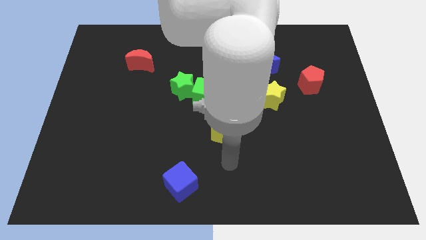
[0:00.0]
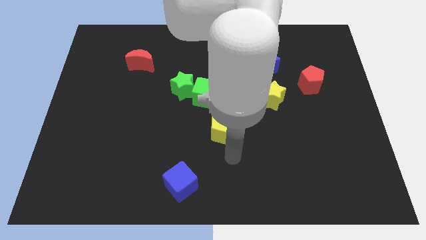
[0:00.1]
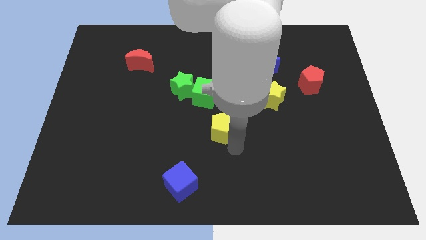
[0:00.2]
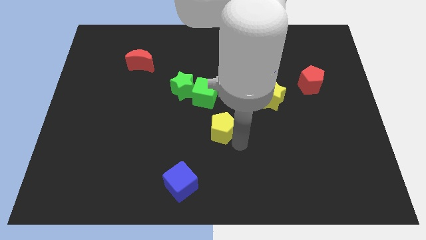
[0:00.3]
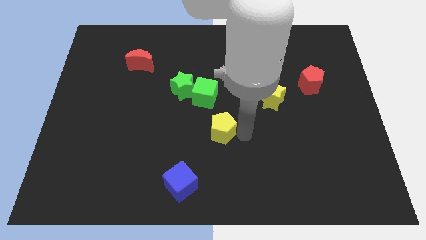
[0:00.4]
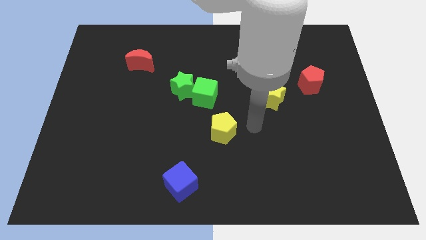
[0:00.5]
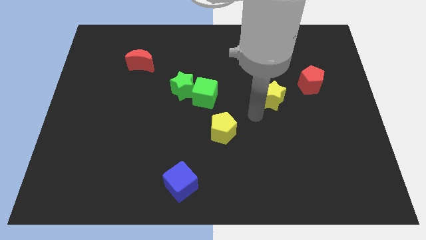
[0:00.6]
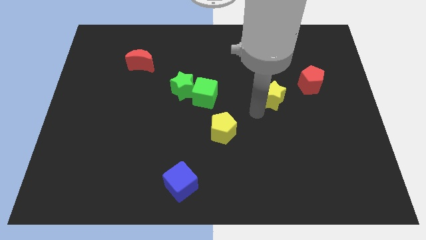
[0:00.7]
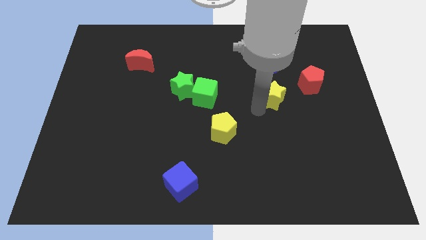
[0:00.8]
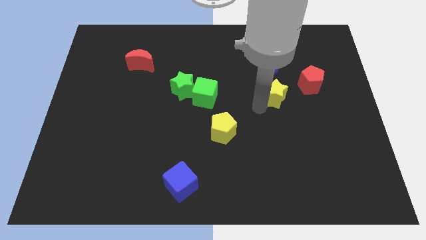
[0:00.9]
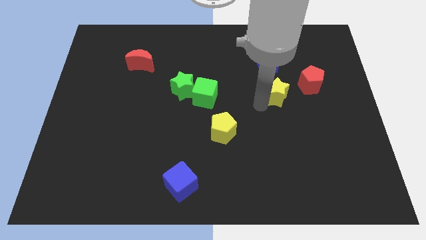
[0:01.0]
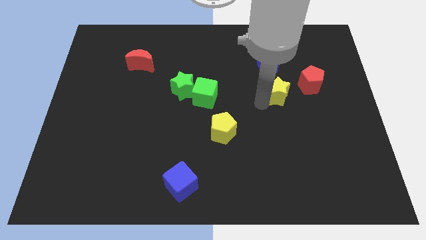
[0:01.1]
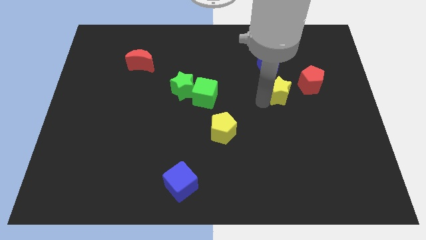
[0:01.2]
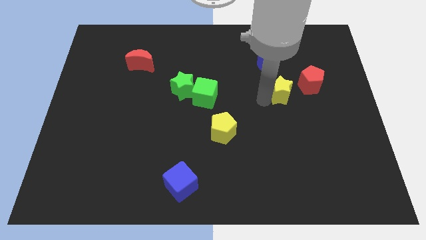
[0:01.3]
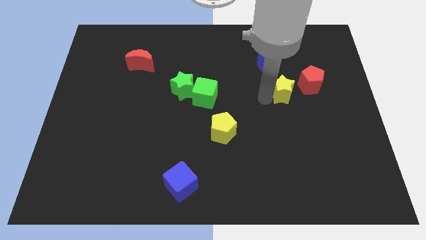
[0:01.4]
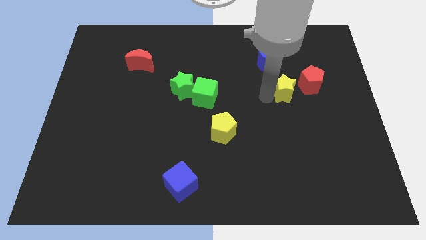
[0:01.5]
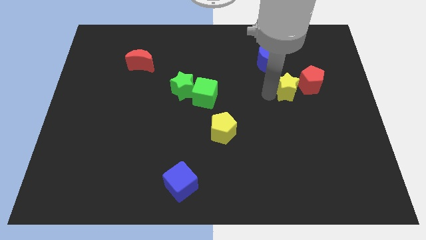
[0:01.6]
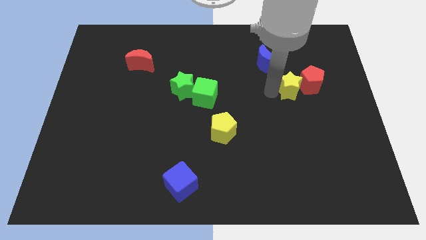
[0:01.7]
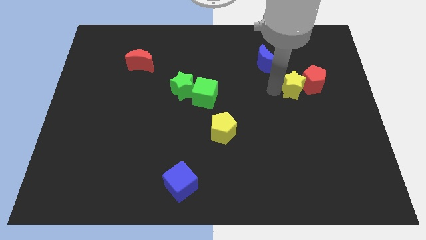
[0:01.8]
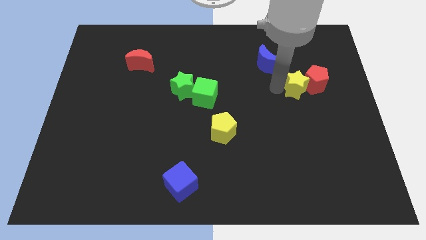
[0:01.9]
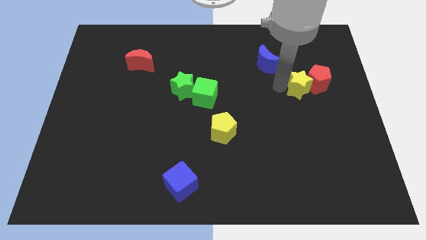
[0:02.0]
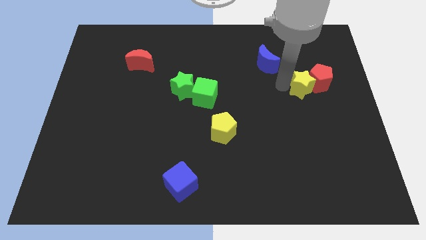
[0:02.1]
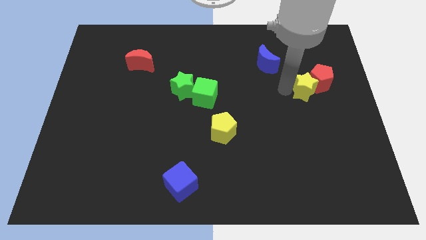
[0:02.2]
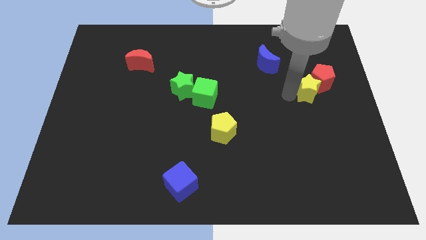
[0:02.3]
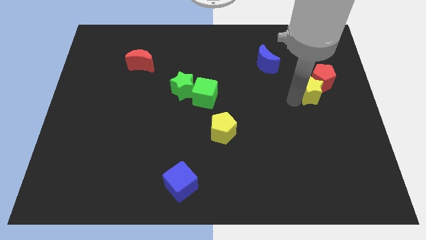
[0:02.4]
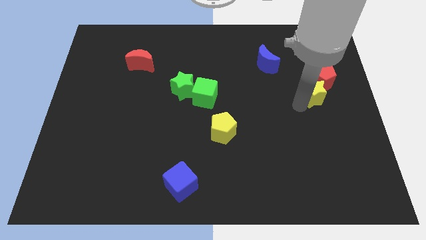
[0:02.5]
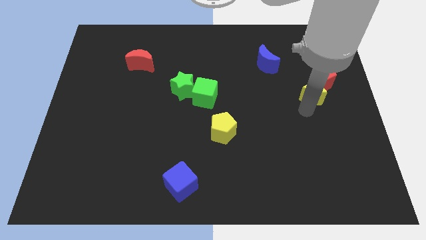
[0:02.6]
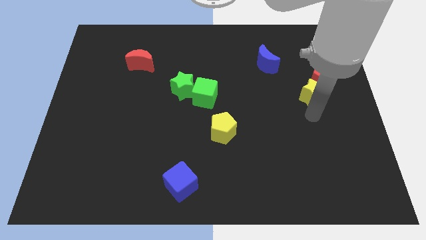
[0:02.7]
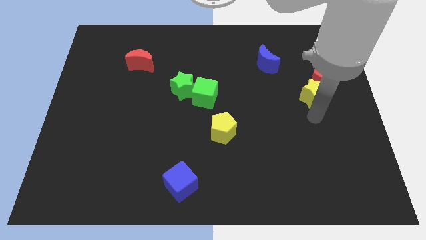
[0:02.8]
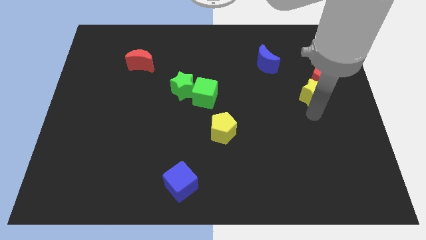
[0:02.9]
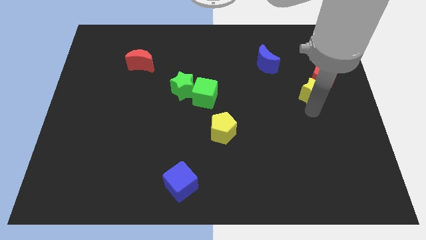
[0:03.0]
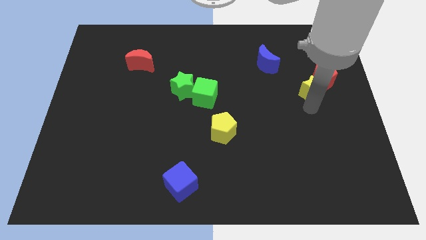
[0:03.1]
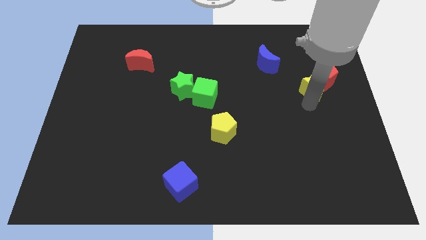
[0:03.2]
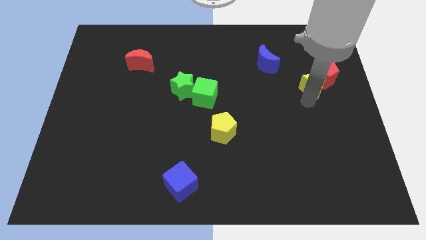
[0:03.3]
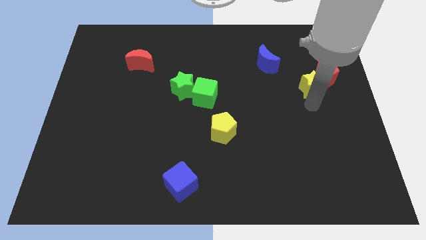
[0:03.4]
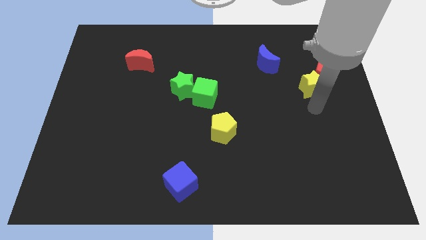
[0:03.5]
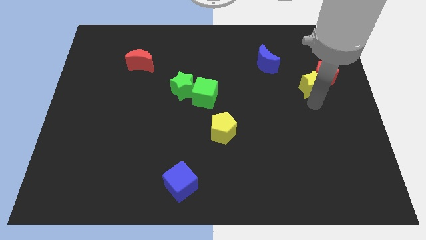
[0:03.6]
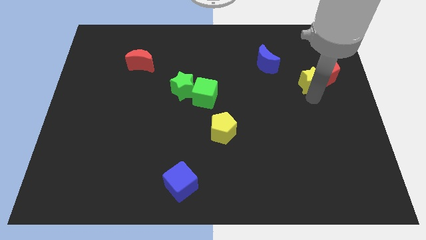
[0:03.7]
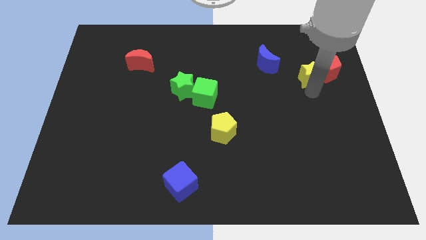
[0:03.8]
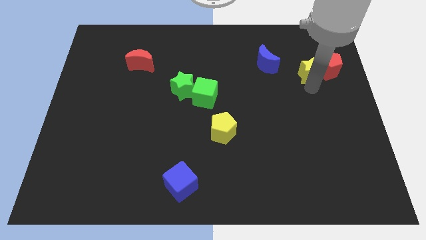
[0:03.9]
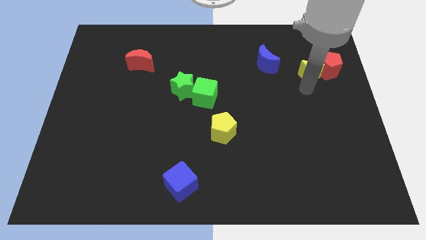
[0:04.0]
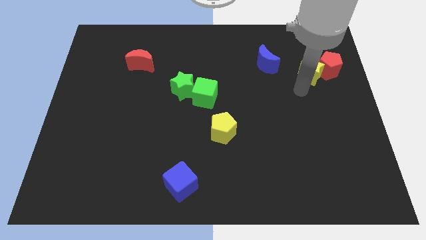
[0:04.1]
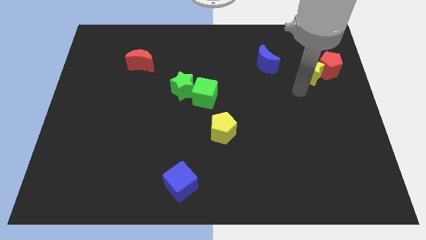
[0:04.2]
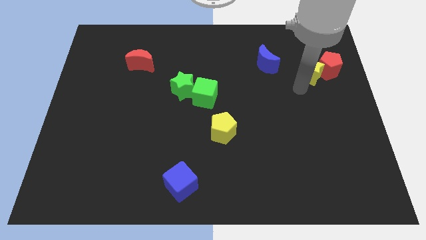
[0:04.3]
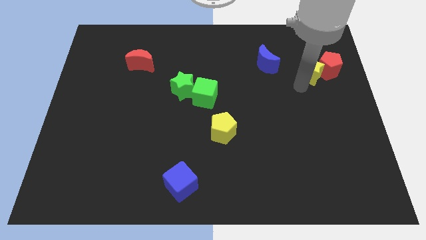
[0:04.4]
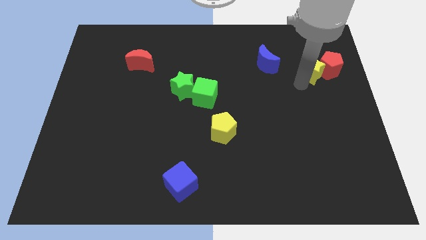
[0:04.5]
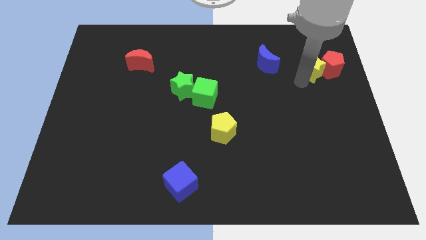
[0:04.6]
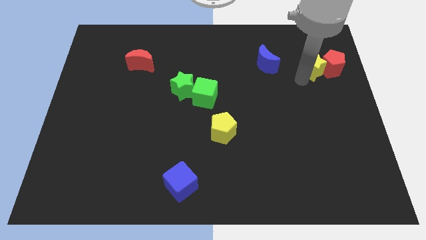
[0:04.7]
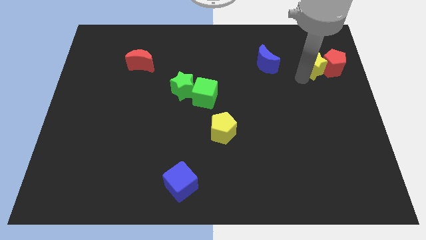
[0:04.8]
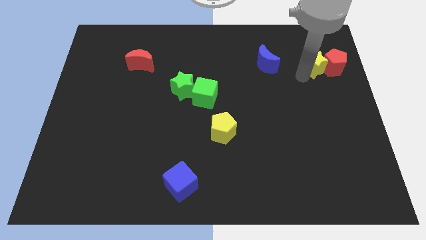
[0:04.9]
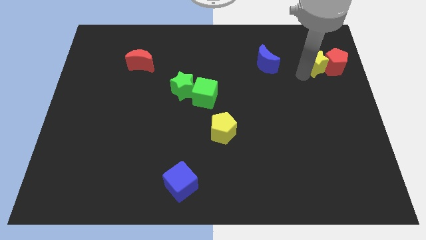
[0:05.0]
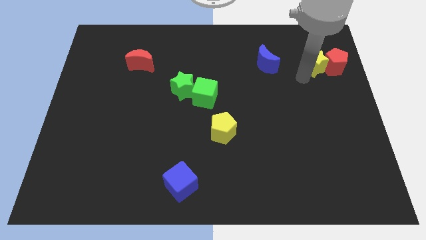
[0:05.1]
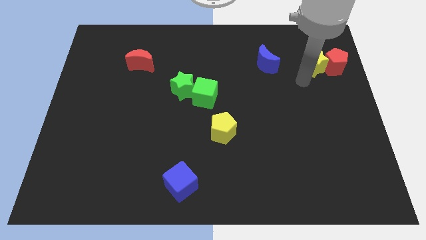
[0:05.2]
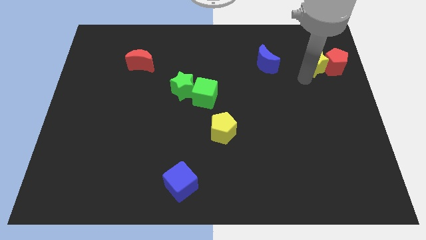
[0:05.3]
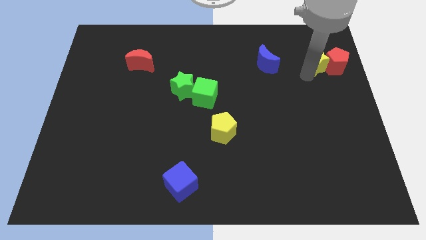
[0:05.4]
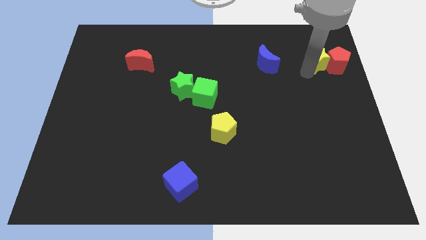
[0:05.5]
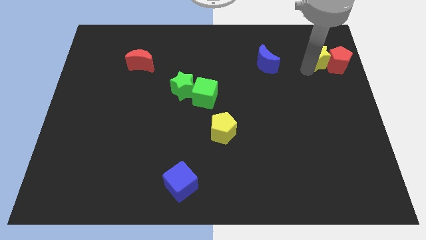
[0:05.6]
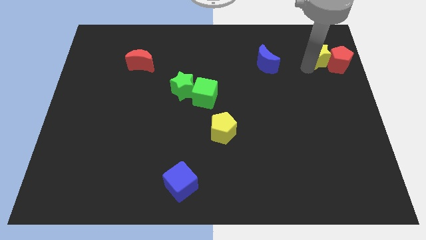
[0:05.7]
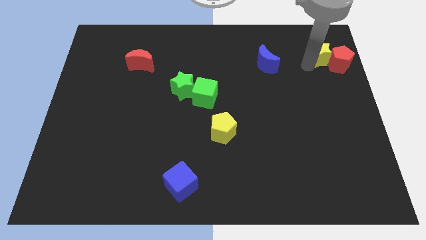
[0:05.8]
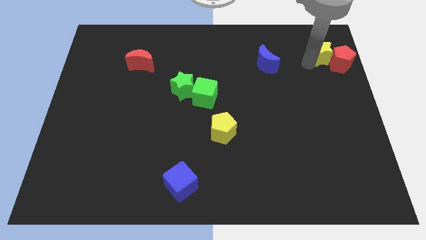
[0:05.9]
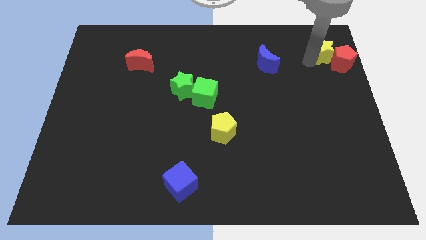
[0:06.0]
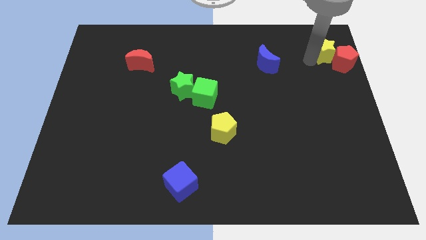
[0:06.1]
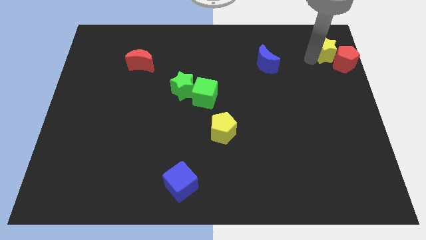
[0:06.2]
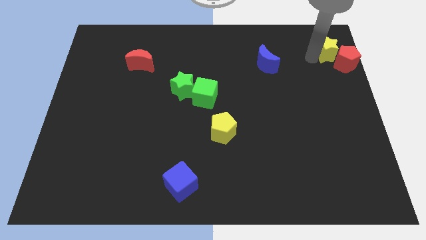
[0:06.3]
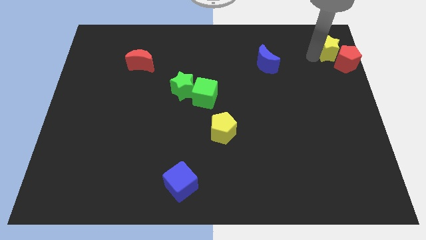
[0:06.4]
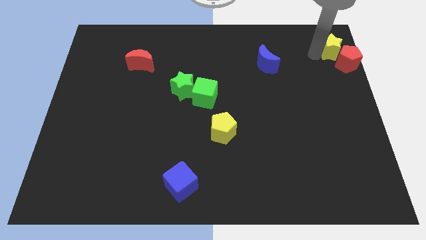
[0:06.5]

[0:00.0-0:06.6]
put the yellow star to the top right of the board

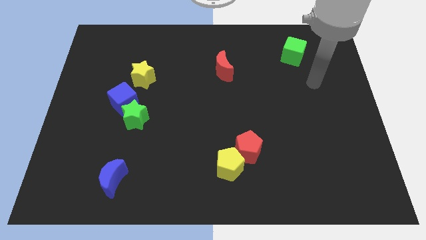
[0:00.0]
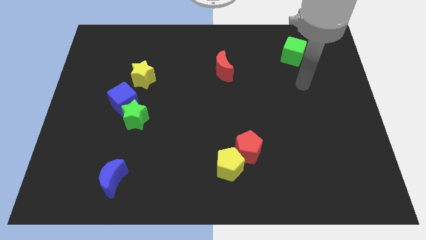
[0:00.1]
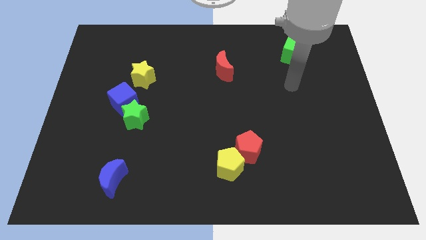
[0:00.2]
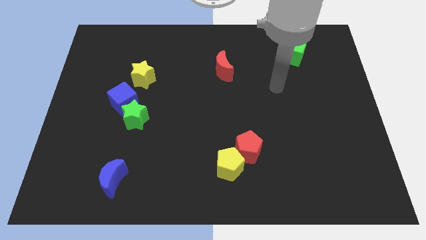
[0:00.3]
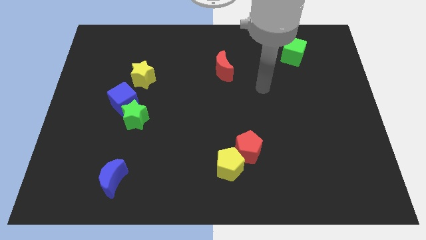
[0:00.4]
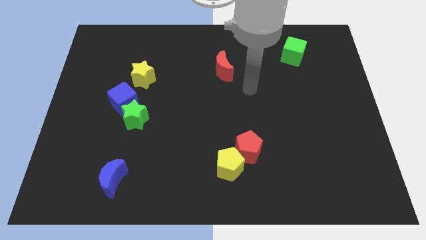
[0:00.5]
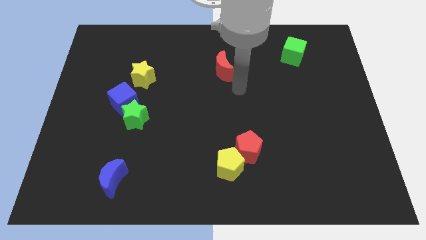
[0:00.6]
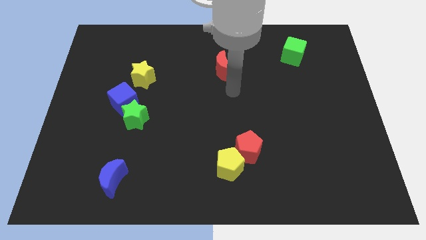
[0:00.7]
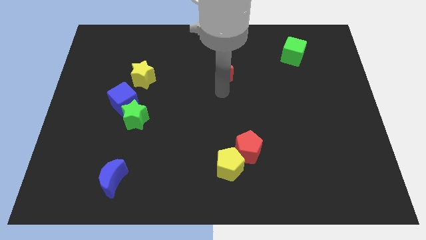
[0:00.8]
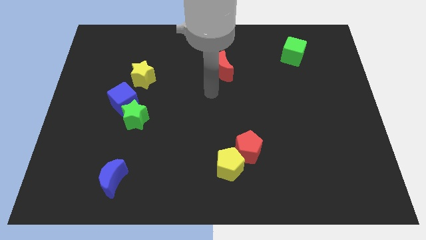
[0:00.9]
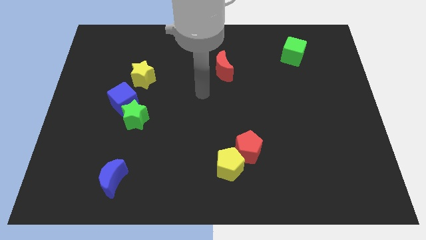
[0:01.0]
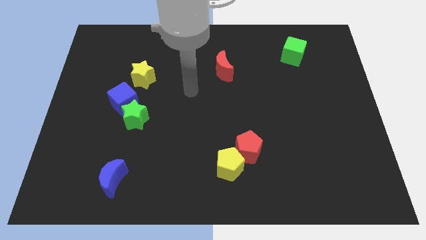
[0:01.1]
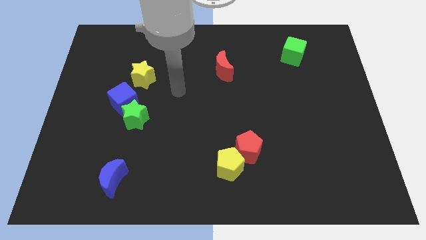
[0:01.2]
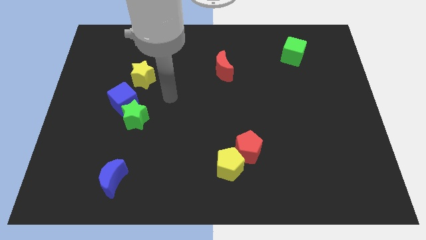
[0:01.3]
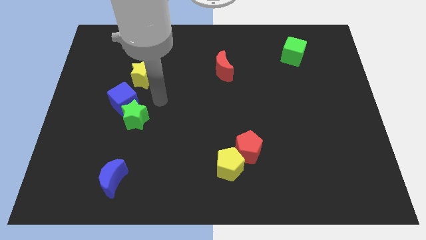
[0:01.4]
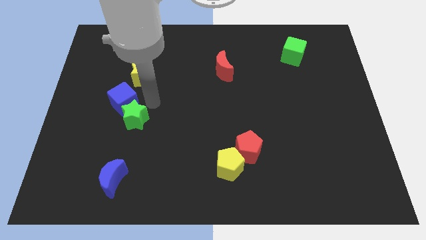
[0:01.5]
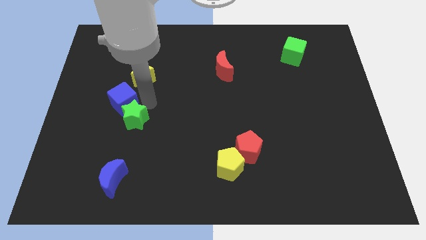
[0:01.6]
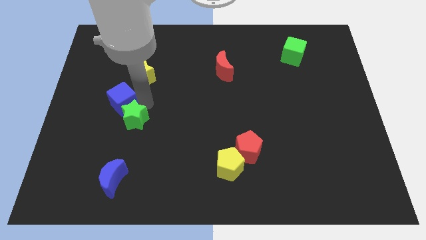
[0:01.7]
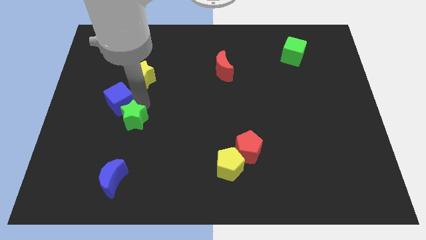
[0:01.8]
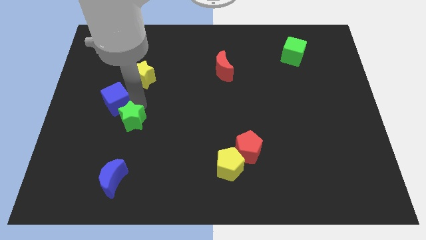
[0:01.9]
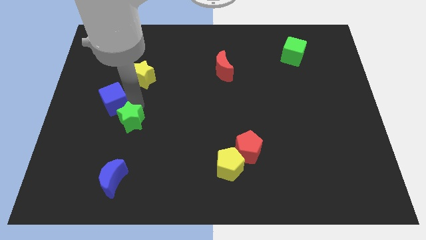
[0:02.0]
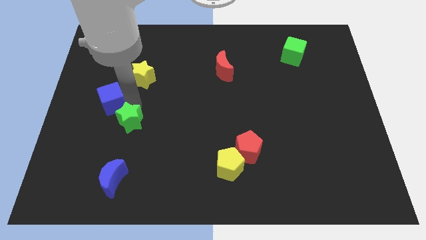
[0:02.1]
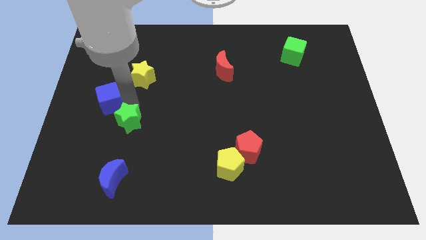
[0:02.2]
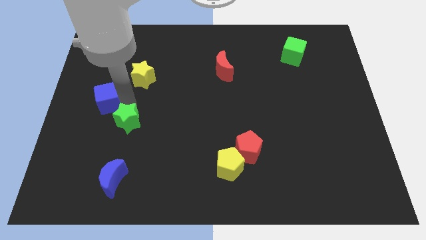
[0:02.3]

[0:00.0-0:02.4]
slide the blue cube to the left side of the board
